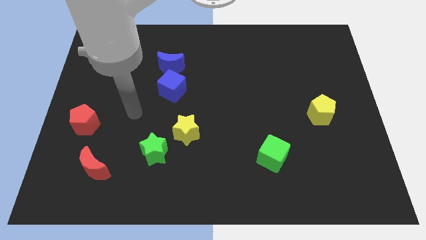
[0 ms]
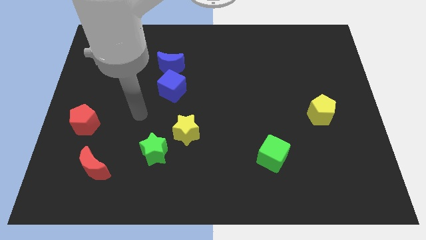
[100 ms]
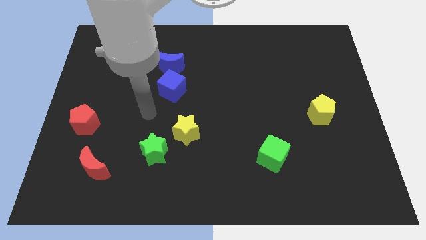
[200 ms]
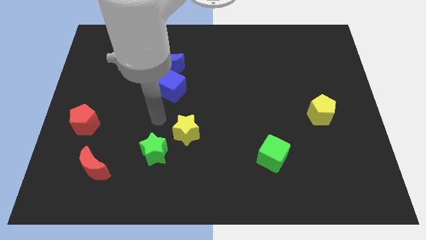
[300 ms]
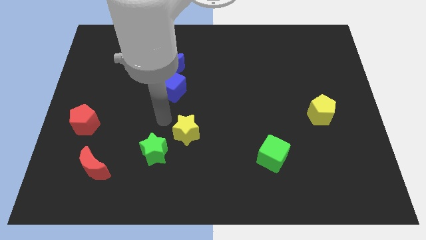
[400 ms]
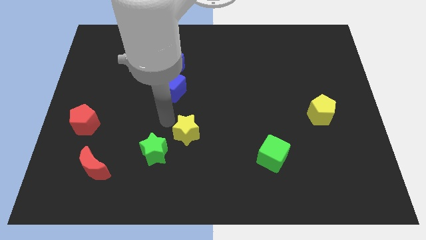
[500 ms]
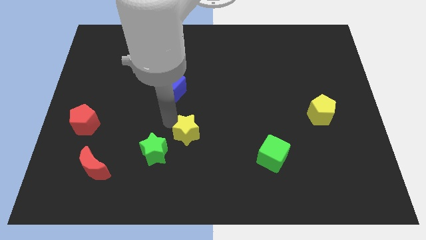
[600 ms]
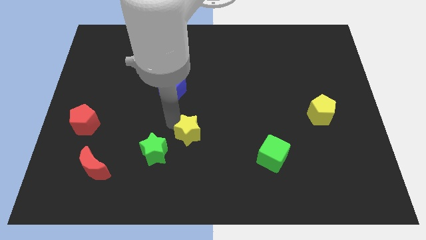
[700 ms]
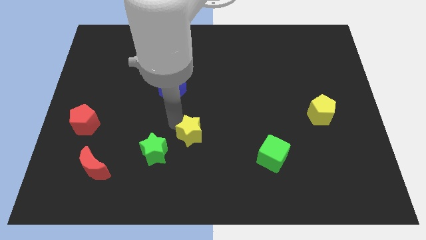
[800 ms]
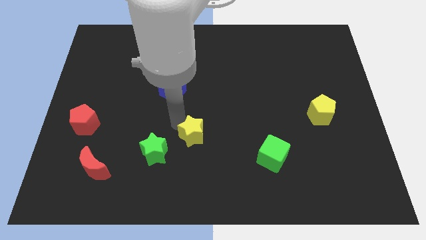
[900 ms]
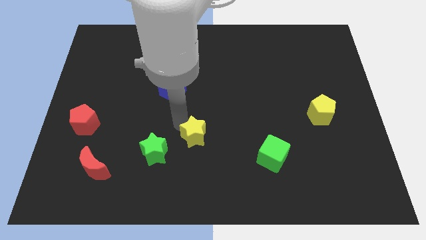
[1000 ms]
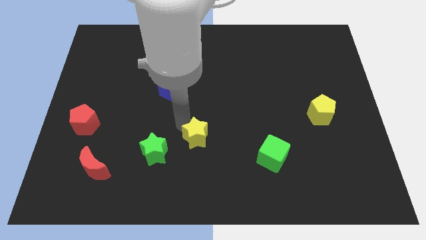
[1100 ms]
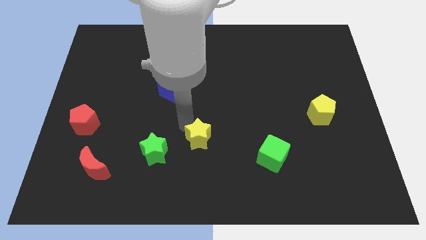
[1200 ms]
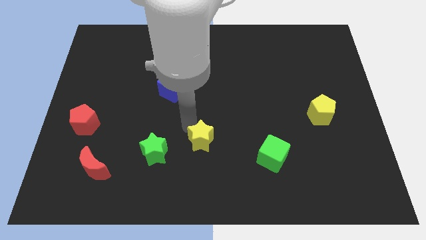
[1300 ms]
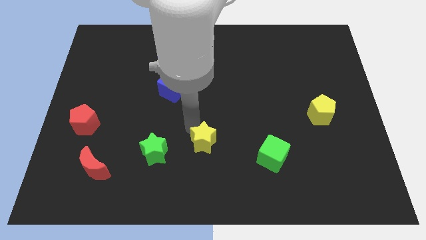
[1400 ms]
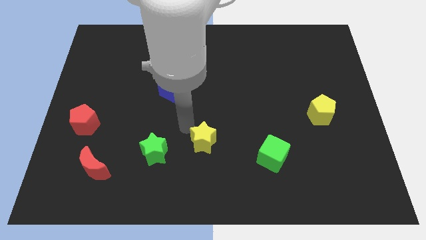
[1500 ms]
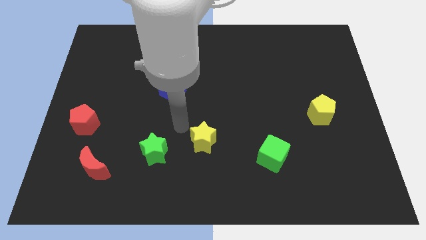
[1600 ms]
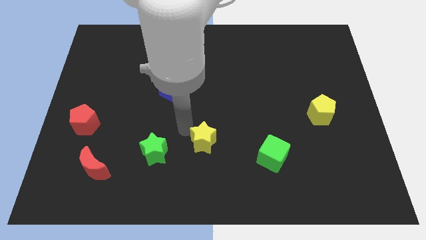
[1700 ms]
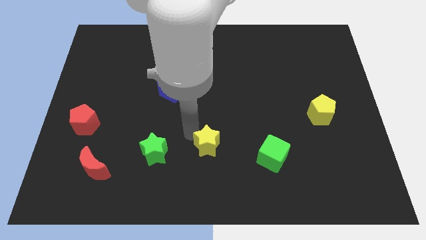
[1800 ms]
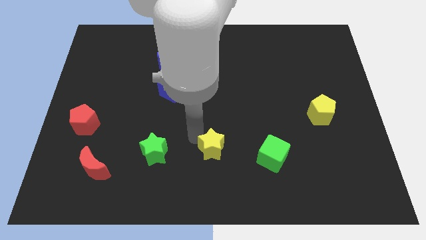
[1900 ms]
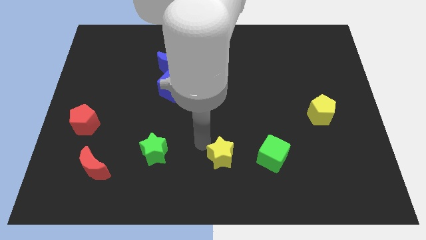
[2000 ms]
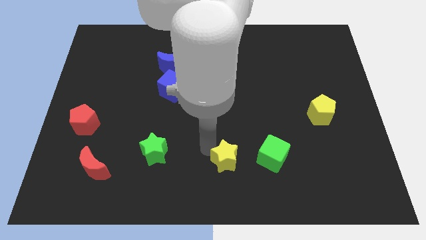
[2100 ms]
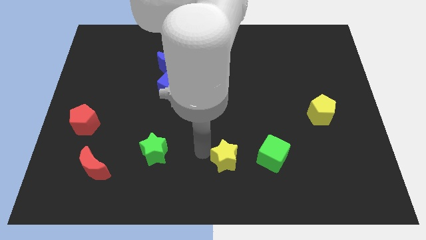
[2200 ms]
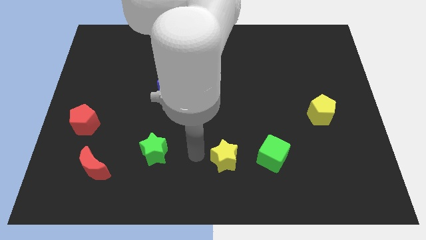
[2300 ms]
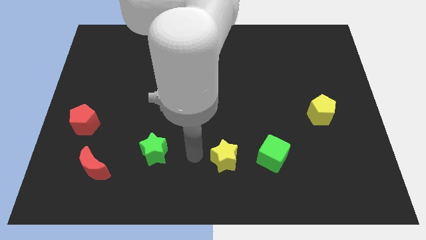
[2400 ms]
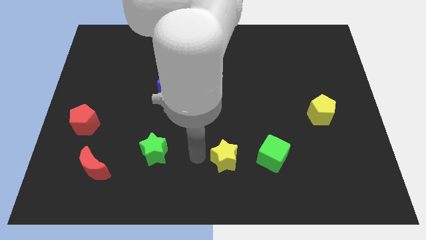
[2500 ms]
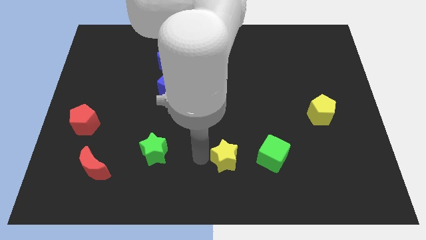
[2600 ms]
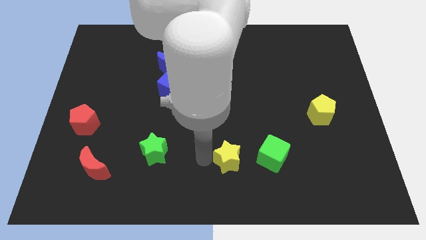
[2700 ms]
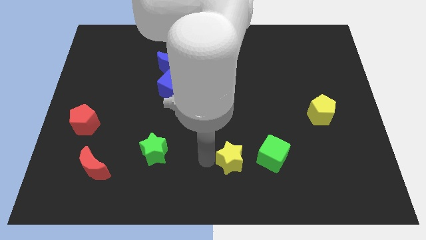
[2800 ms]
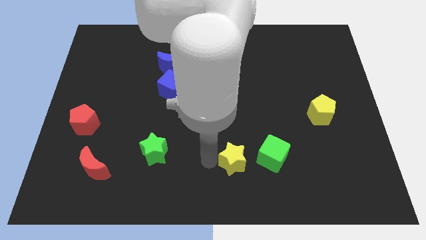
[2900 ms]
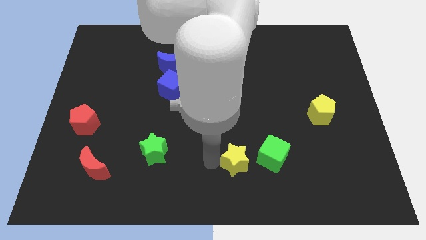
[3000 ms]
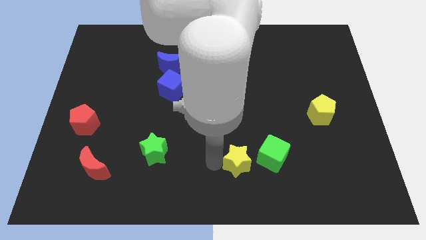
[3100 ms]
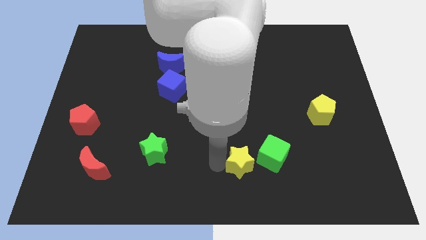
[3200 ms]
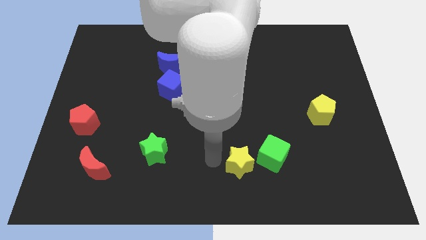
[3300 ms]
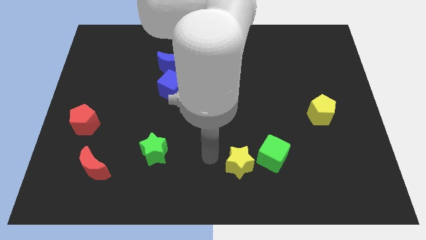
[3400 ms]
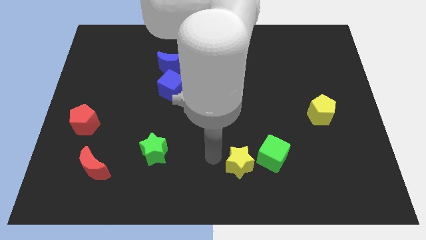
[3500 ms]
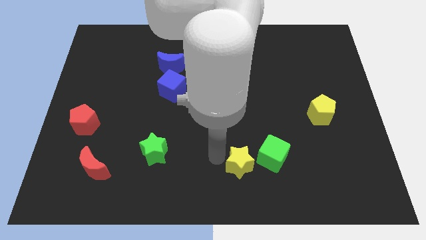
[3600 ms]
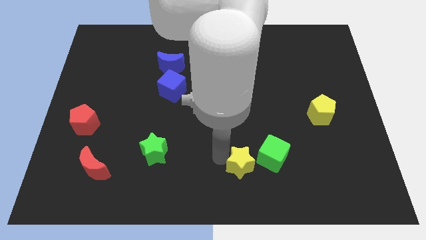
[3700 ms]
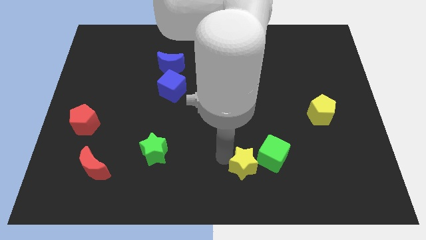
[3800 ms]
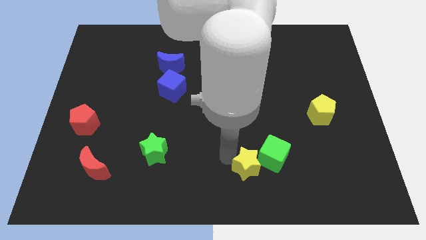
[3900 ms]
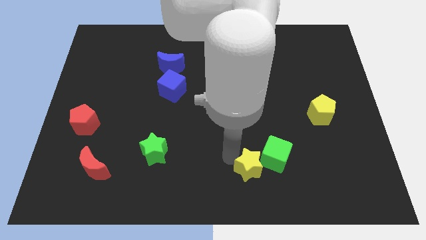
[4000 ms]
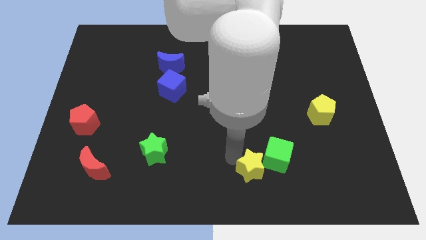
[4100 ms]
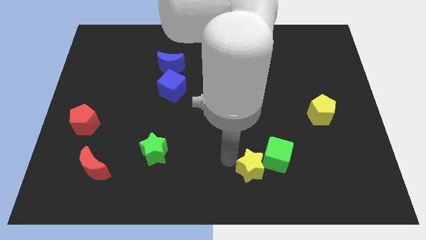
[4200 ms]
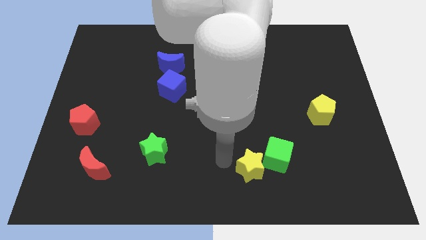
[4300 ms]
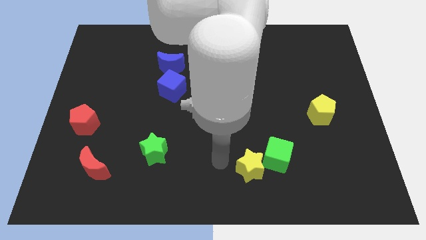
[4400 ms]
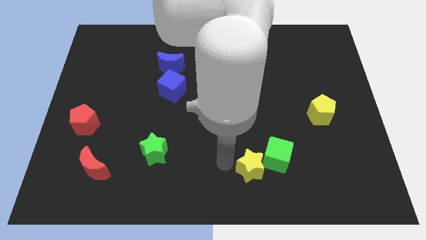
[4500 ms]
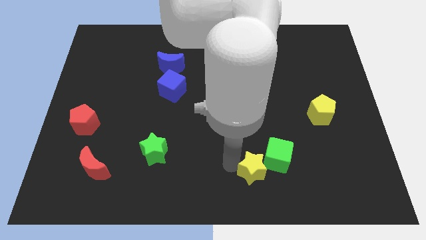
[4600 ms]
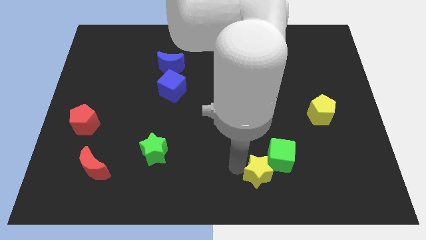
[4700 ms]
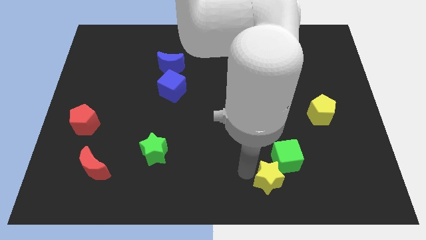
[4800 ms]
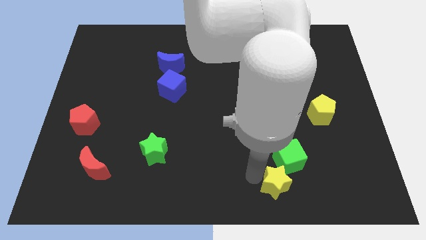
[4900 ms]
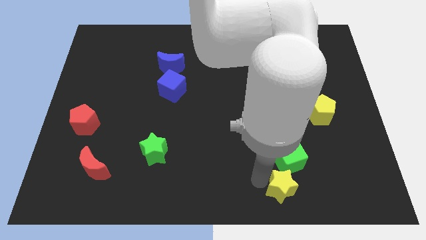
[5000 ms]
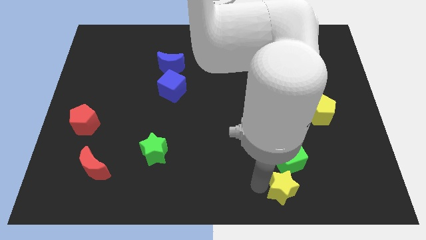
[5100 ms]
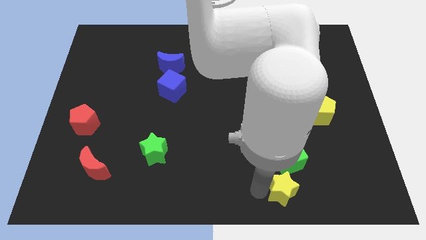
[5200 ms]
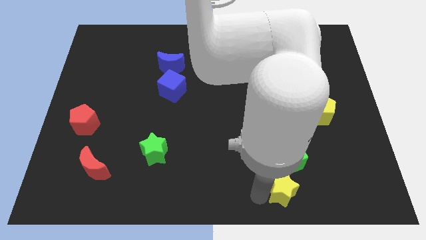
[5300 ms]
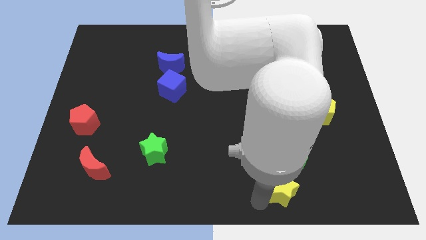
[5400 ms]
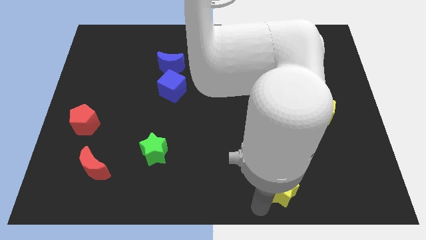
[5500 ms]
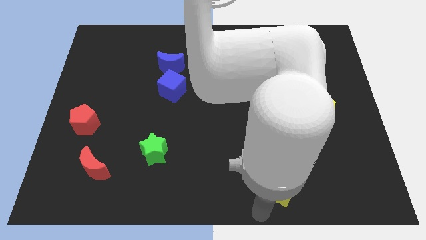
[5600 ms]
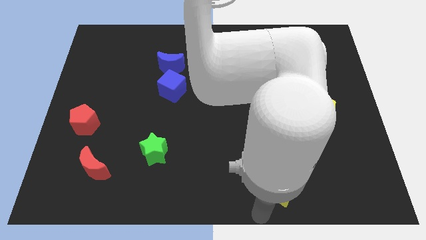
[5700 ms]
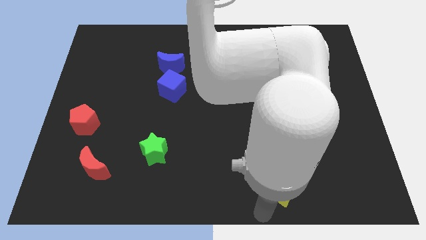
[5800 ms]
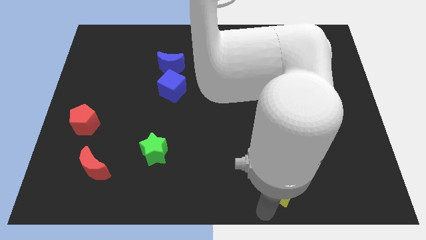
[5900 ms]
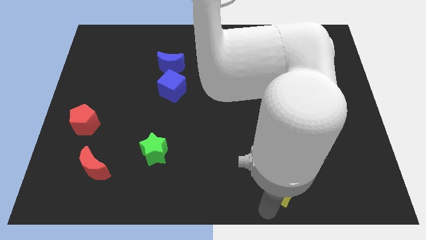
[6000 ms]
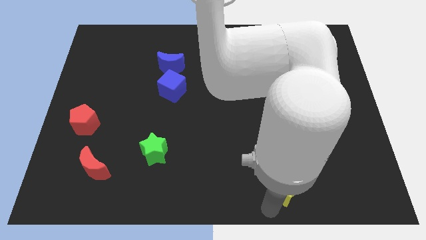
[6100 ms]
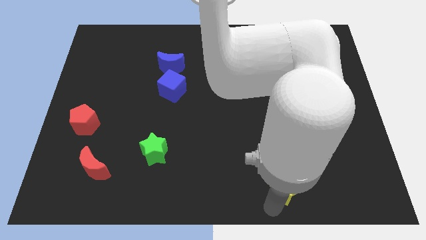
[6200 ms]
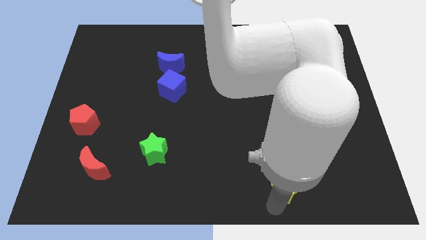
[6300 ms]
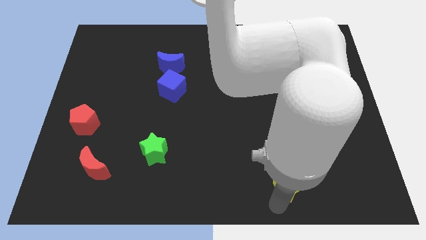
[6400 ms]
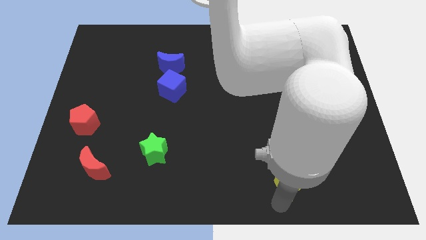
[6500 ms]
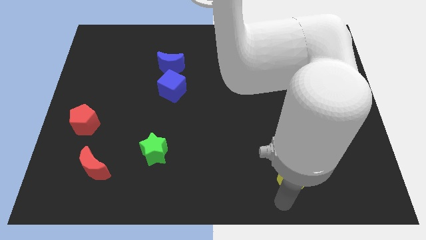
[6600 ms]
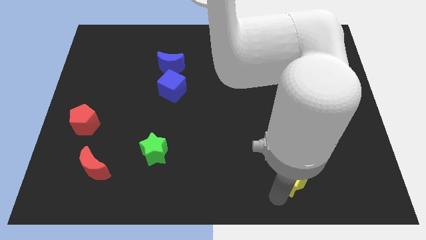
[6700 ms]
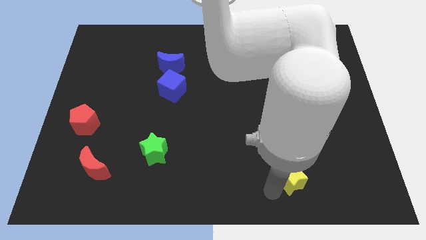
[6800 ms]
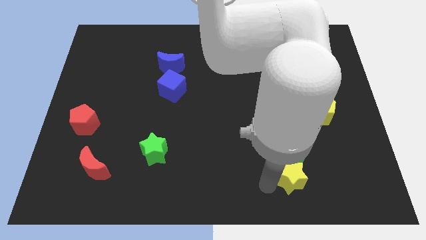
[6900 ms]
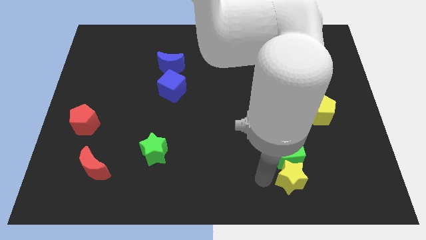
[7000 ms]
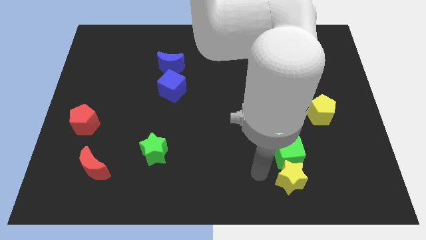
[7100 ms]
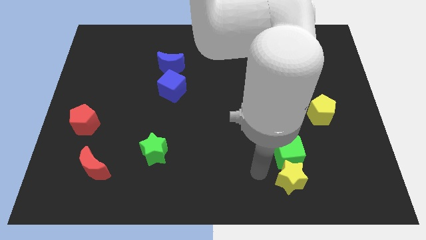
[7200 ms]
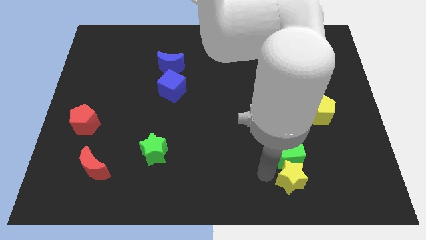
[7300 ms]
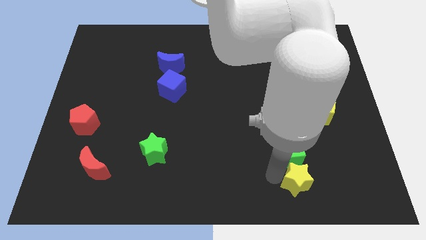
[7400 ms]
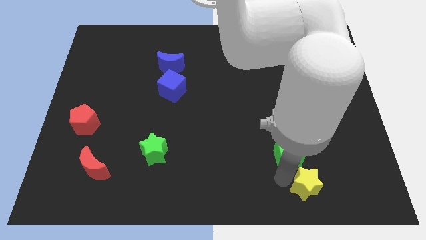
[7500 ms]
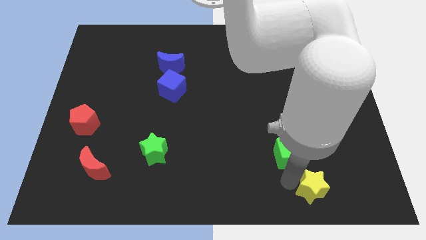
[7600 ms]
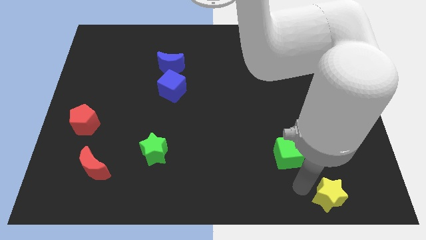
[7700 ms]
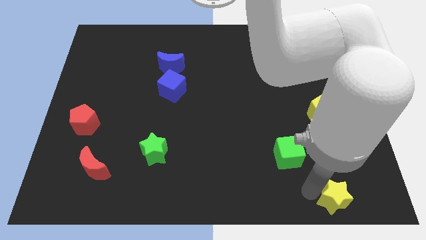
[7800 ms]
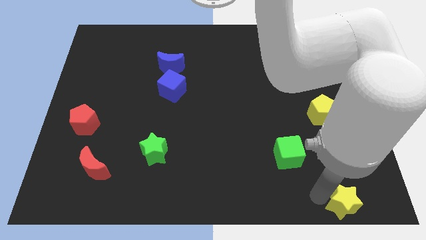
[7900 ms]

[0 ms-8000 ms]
slide the yellow star to the bottom right
